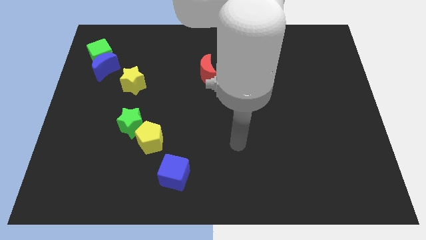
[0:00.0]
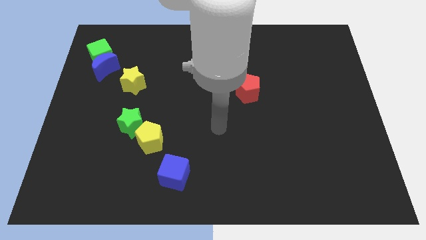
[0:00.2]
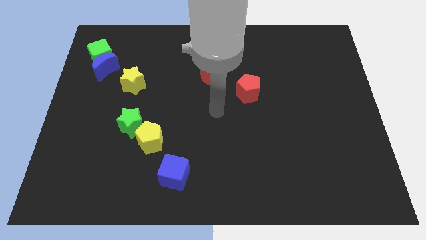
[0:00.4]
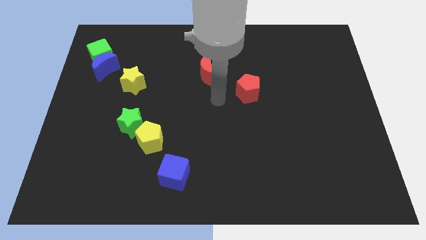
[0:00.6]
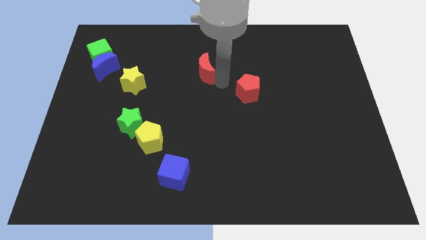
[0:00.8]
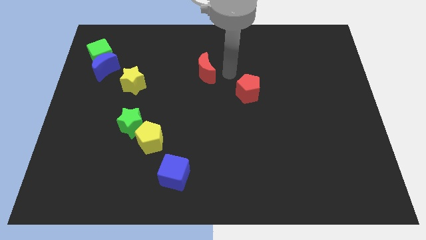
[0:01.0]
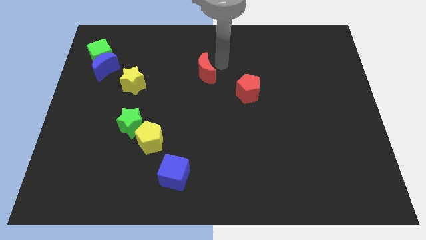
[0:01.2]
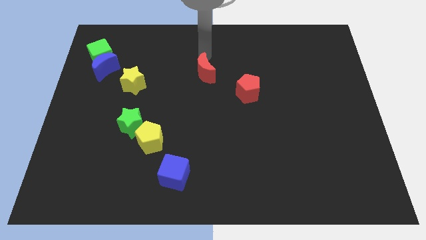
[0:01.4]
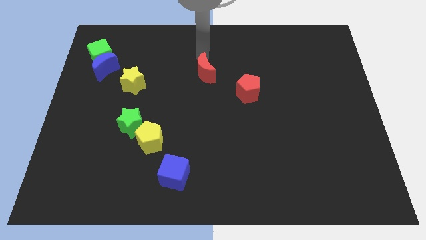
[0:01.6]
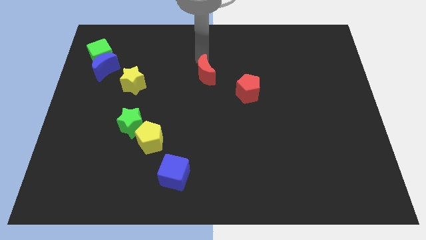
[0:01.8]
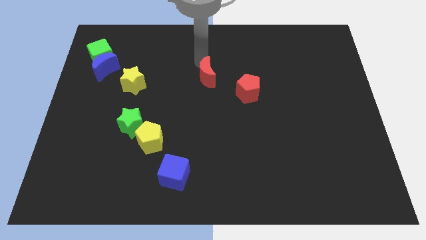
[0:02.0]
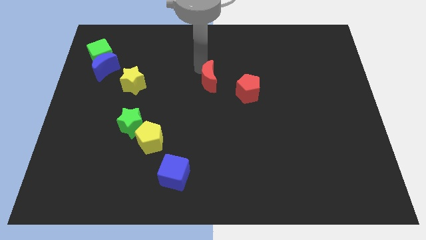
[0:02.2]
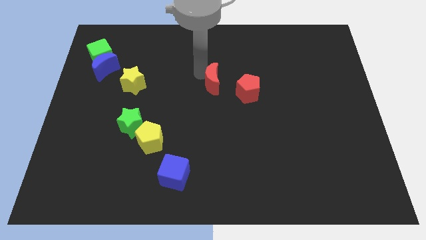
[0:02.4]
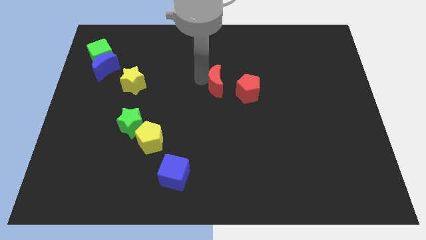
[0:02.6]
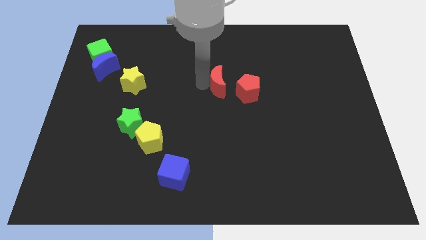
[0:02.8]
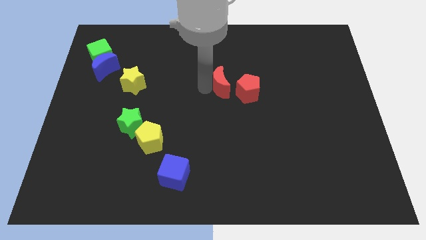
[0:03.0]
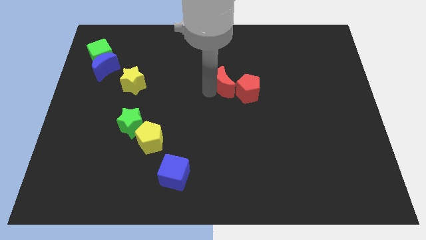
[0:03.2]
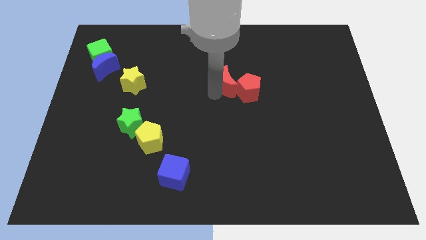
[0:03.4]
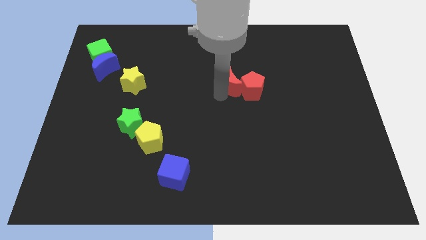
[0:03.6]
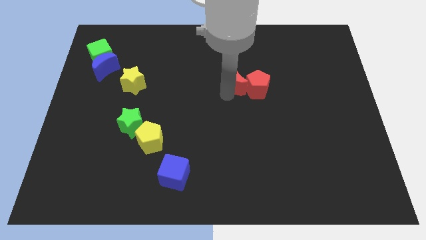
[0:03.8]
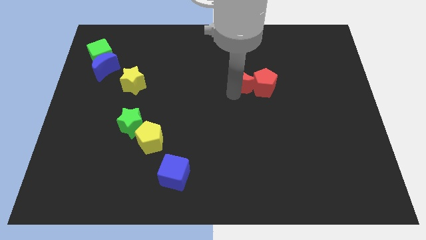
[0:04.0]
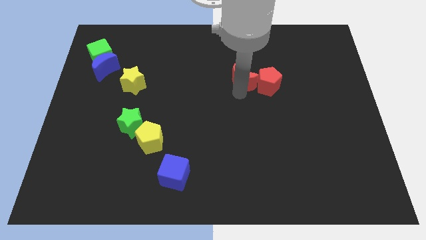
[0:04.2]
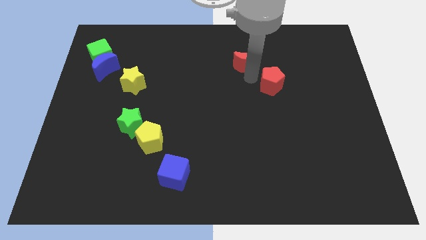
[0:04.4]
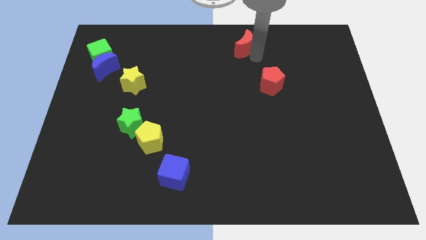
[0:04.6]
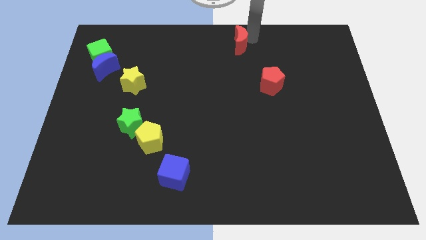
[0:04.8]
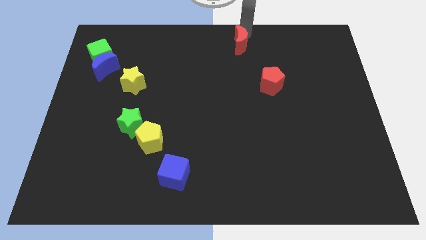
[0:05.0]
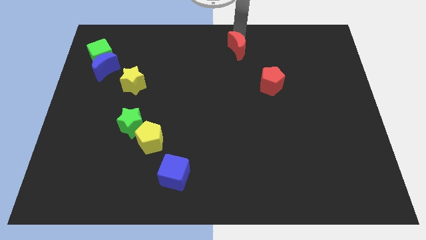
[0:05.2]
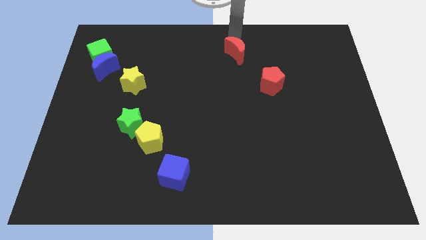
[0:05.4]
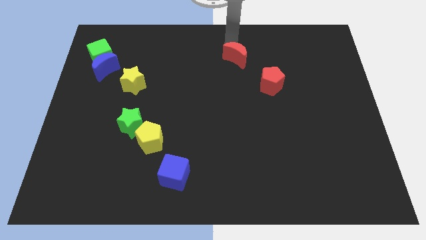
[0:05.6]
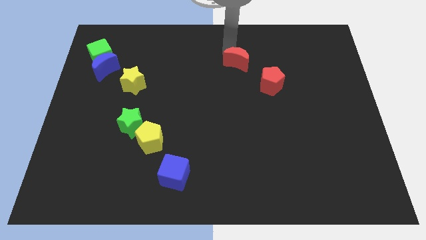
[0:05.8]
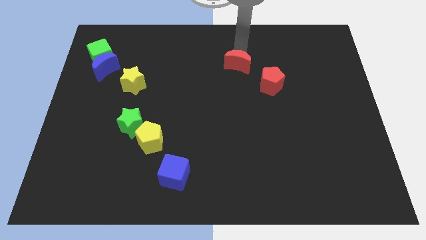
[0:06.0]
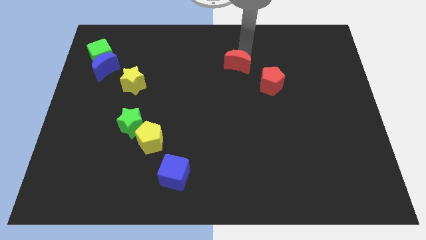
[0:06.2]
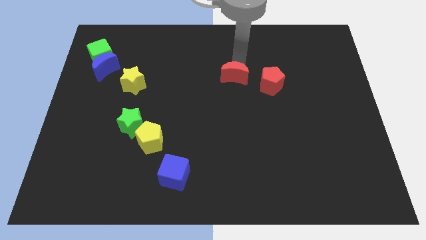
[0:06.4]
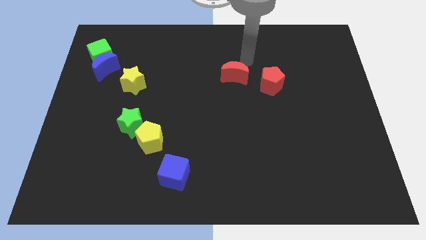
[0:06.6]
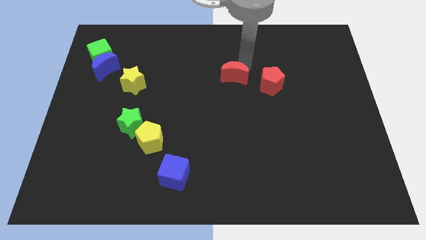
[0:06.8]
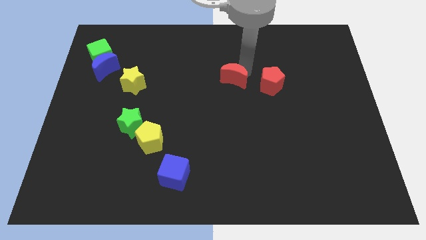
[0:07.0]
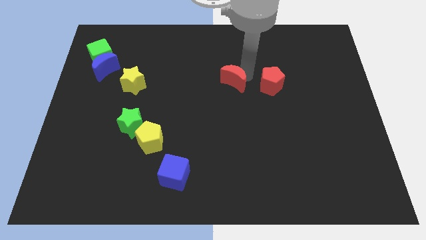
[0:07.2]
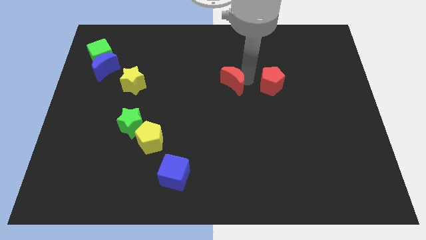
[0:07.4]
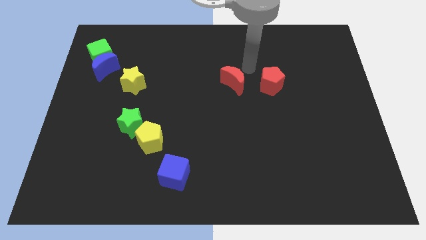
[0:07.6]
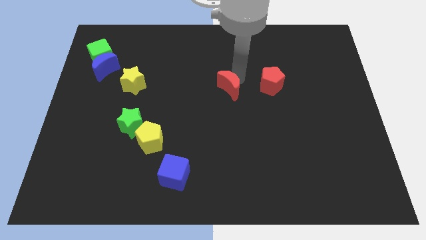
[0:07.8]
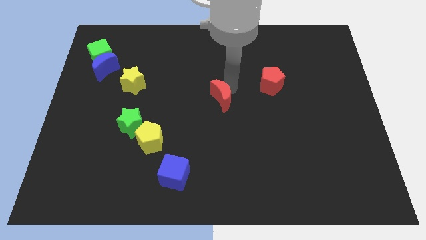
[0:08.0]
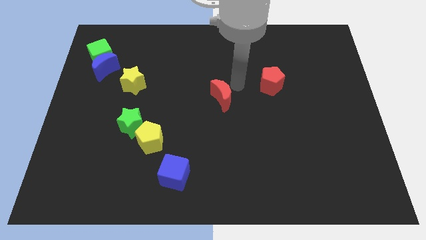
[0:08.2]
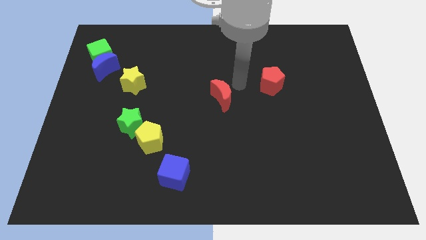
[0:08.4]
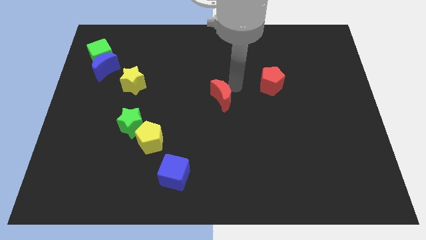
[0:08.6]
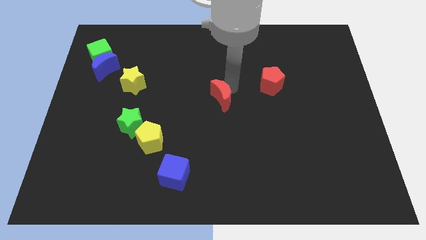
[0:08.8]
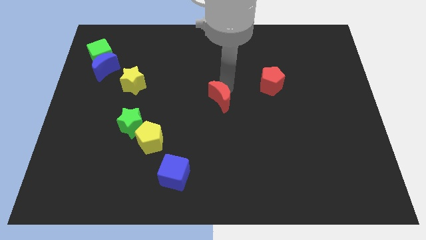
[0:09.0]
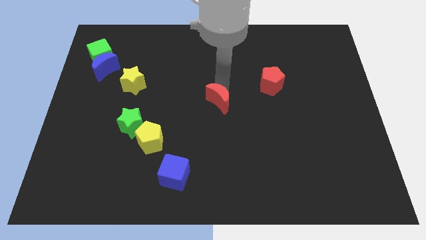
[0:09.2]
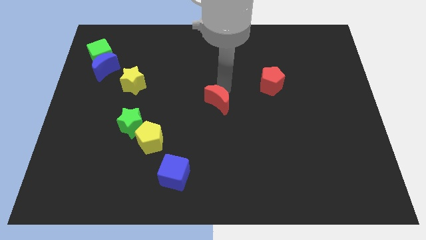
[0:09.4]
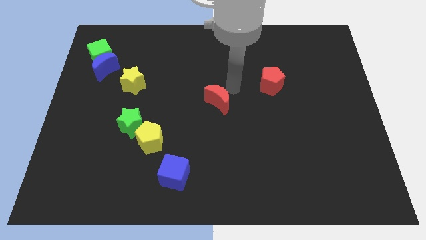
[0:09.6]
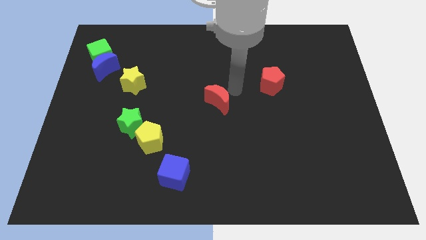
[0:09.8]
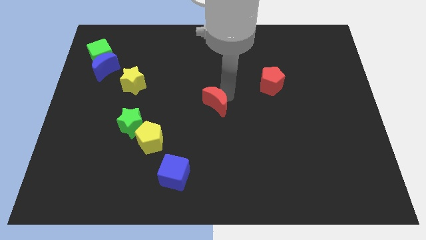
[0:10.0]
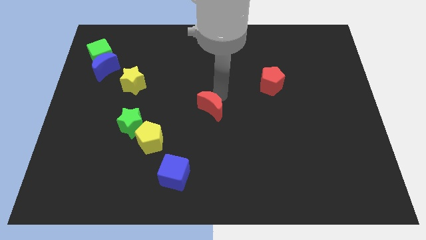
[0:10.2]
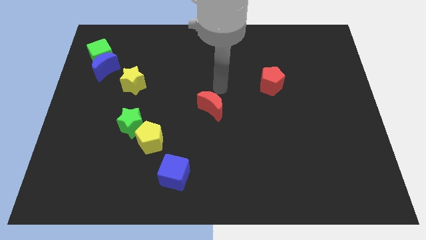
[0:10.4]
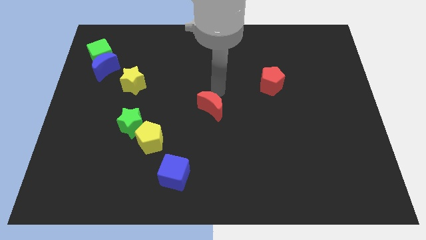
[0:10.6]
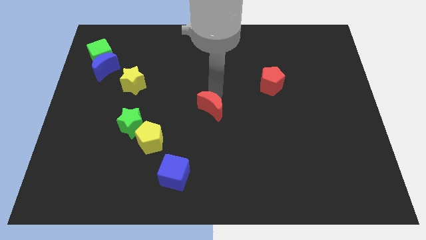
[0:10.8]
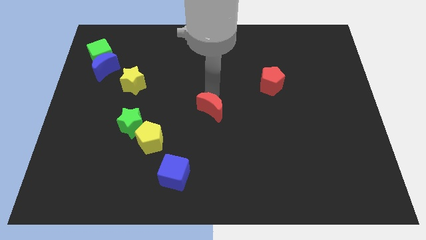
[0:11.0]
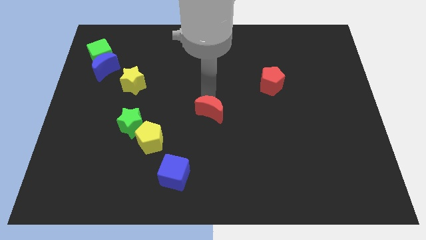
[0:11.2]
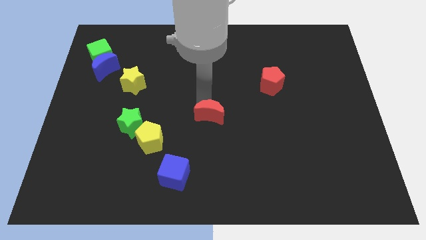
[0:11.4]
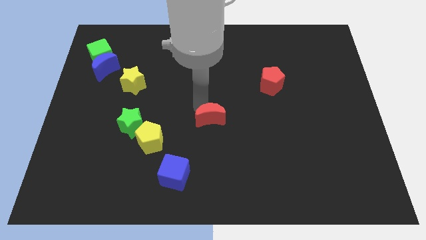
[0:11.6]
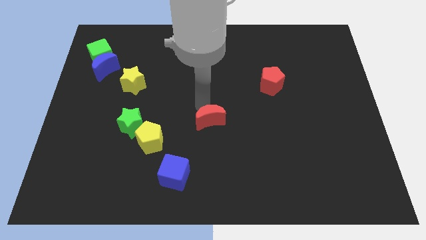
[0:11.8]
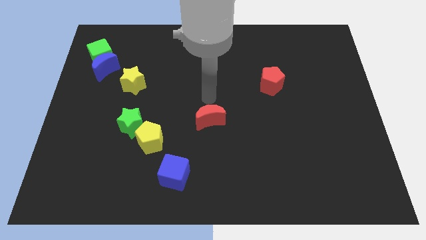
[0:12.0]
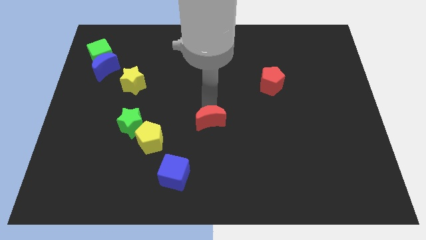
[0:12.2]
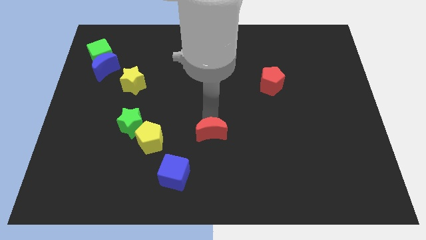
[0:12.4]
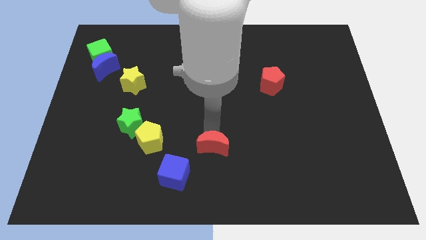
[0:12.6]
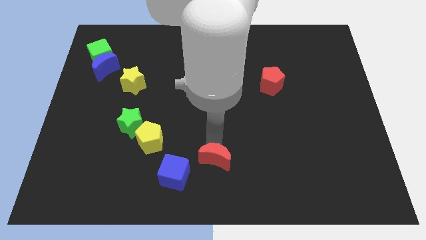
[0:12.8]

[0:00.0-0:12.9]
push the red moon to the bottom

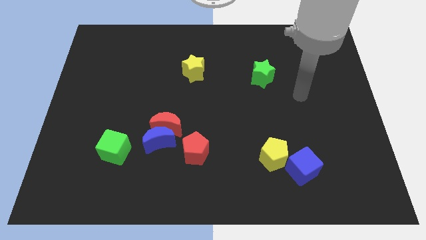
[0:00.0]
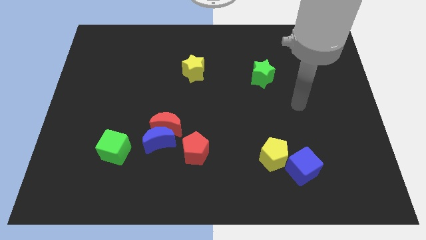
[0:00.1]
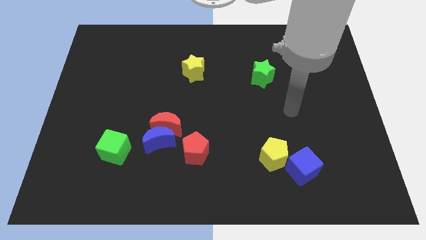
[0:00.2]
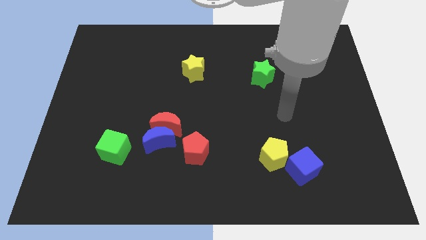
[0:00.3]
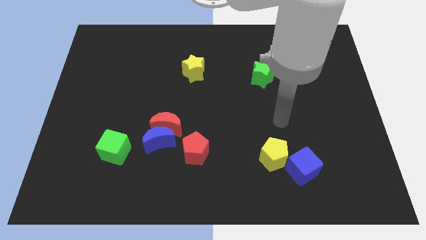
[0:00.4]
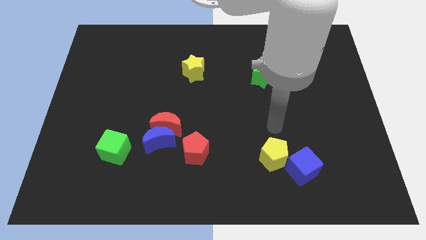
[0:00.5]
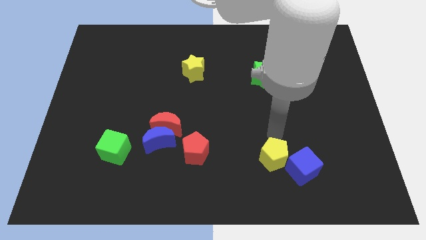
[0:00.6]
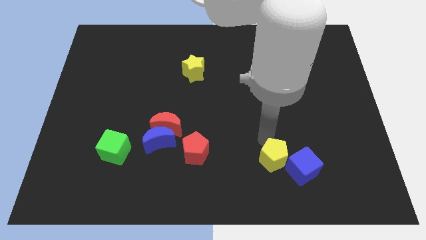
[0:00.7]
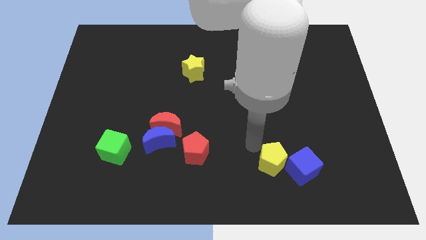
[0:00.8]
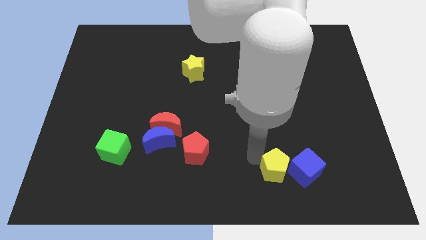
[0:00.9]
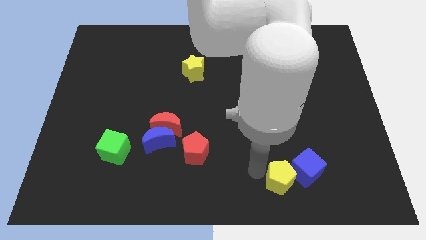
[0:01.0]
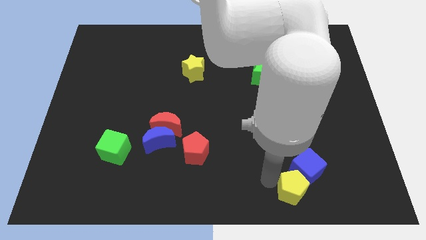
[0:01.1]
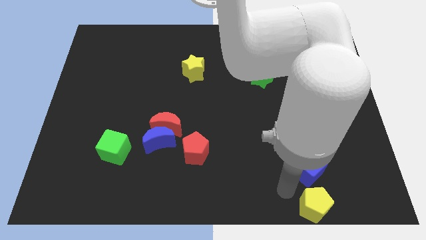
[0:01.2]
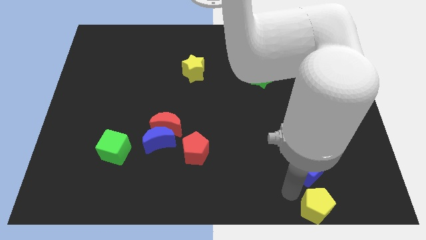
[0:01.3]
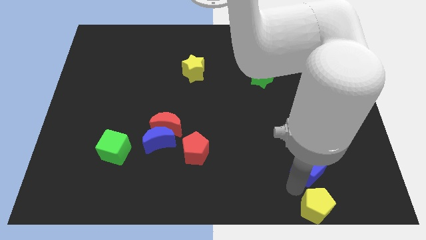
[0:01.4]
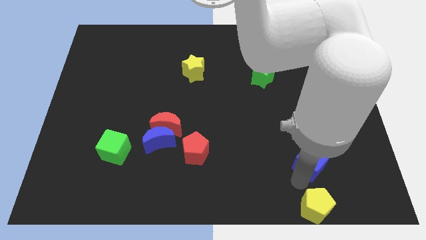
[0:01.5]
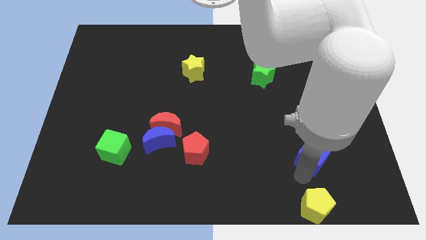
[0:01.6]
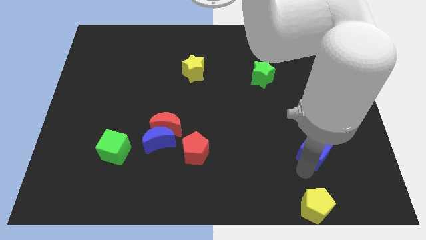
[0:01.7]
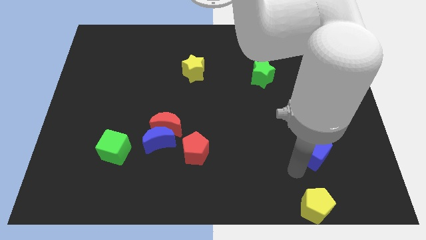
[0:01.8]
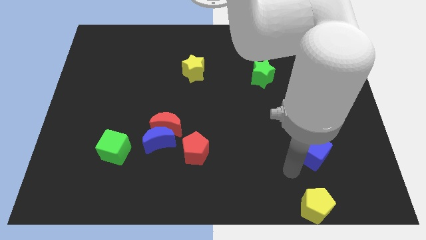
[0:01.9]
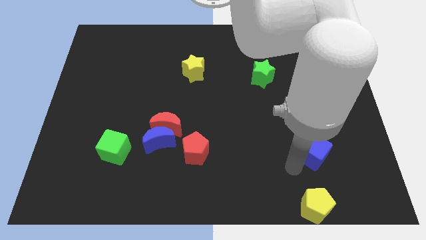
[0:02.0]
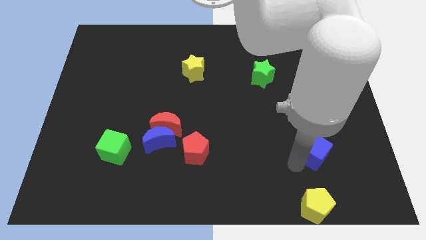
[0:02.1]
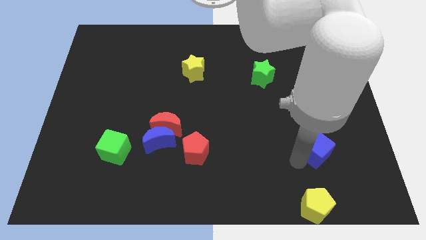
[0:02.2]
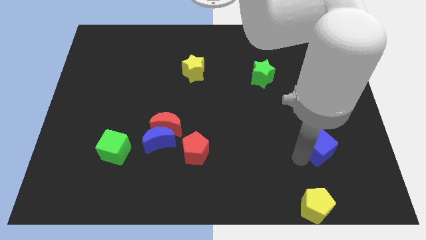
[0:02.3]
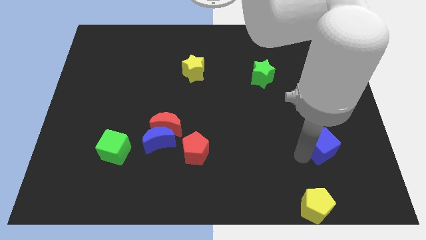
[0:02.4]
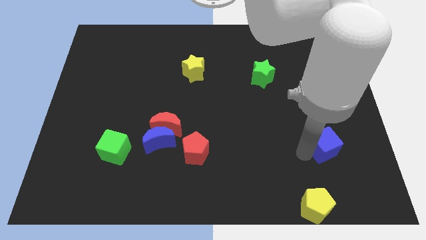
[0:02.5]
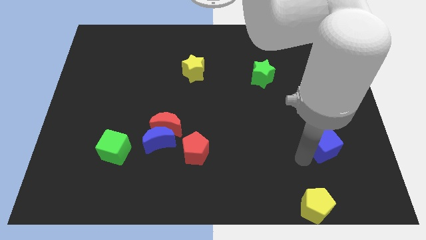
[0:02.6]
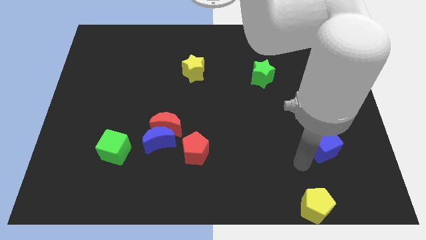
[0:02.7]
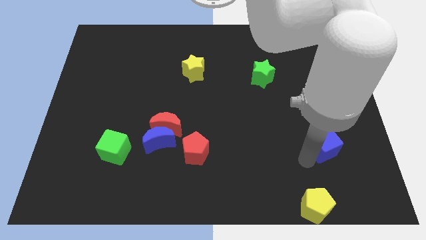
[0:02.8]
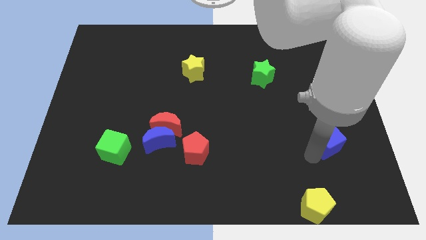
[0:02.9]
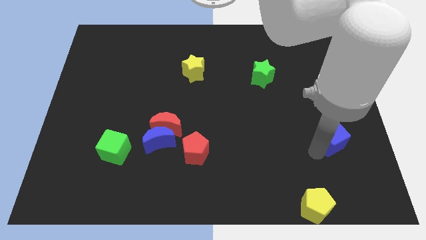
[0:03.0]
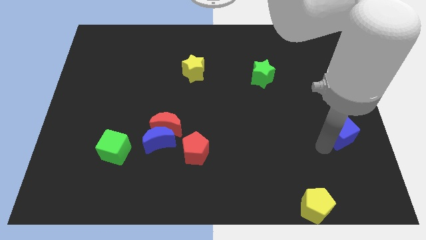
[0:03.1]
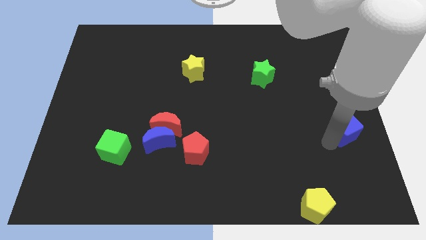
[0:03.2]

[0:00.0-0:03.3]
slide the blue cube to the right side
